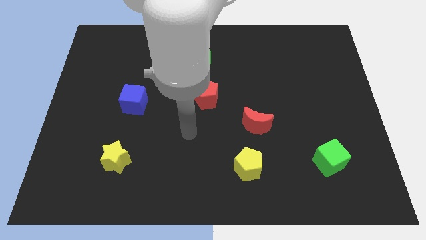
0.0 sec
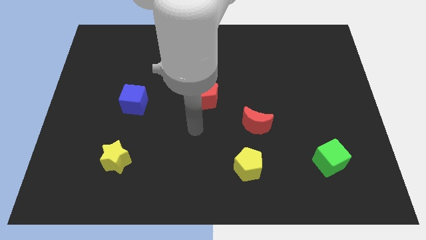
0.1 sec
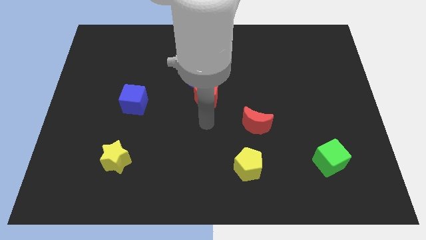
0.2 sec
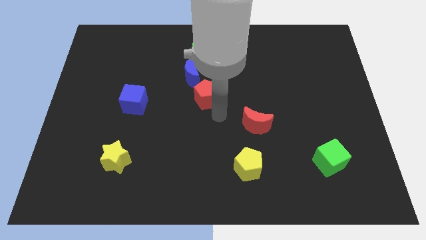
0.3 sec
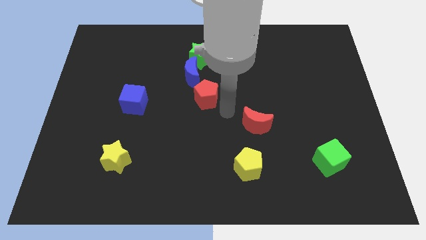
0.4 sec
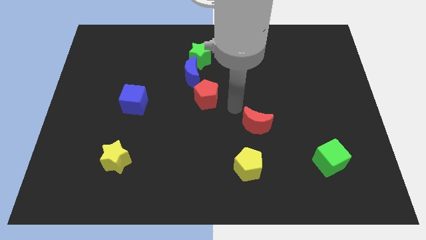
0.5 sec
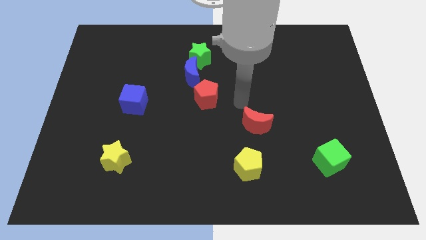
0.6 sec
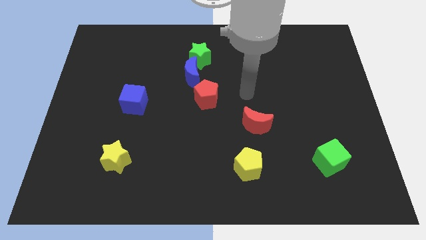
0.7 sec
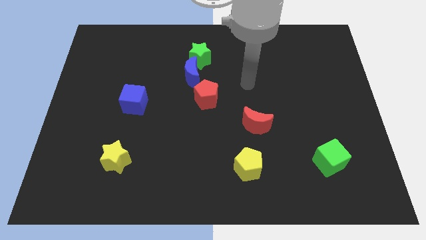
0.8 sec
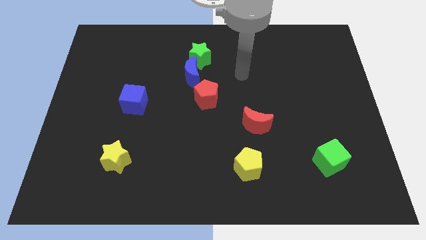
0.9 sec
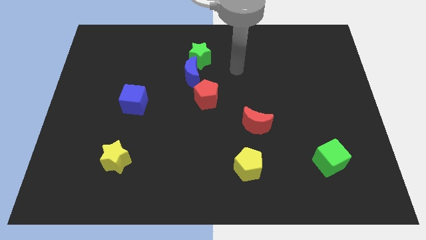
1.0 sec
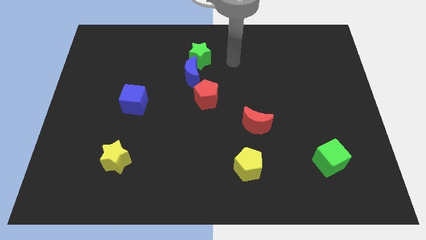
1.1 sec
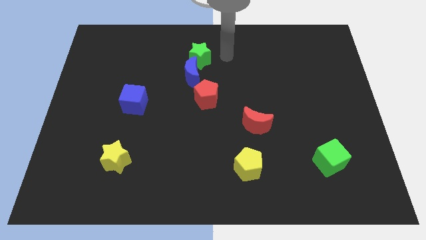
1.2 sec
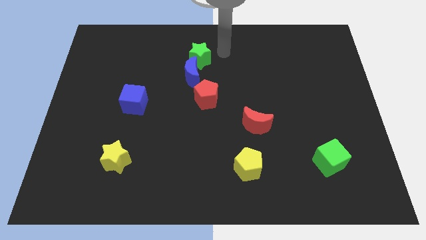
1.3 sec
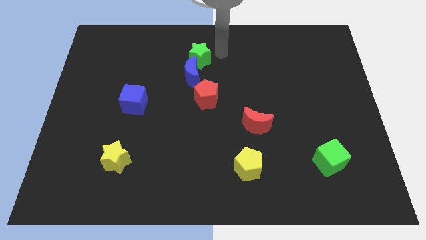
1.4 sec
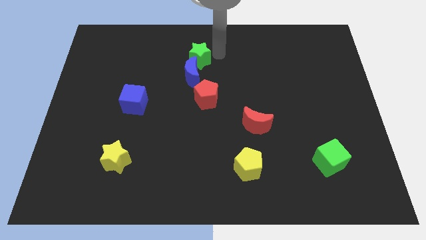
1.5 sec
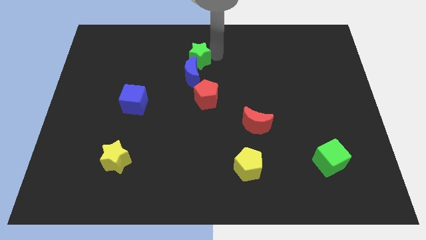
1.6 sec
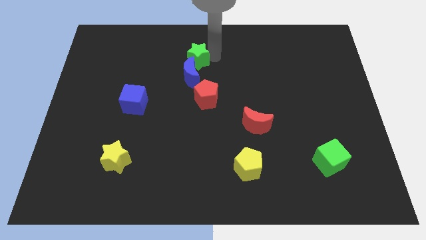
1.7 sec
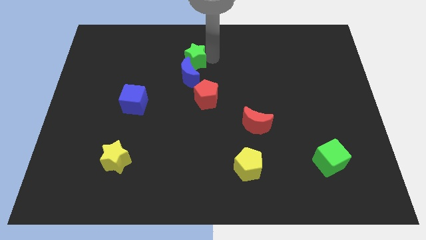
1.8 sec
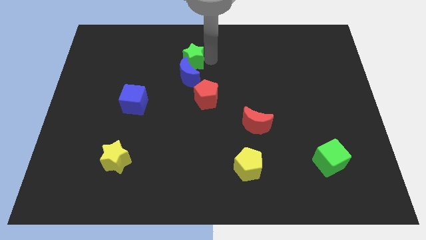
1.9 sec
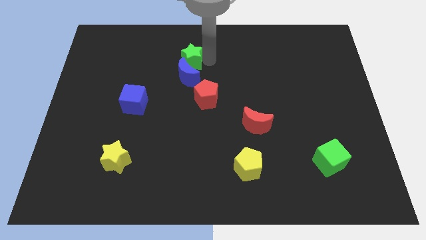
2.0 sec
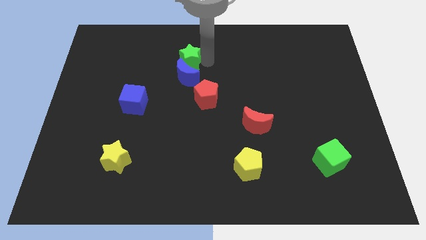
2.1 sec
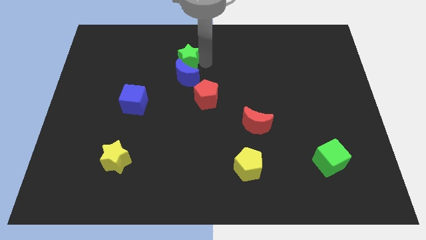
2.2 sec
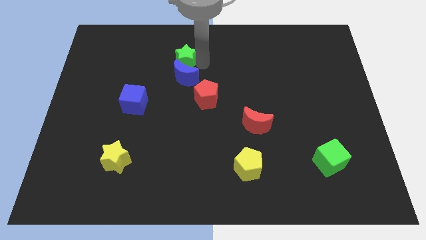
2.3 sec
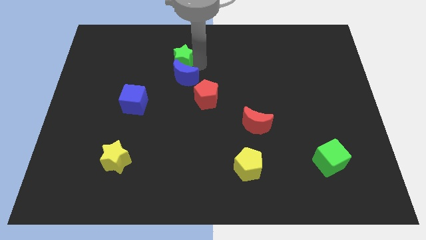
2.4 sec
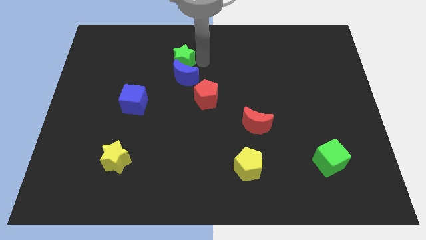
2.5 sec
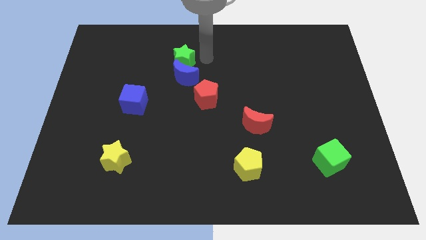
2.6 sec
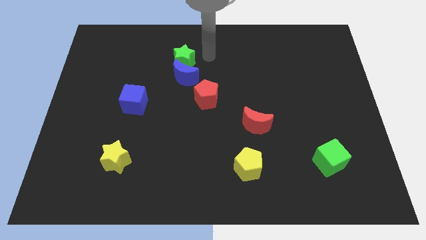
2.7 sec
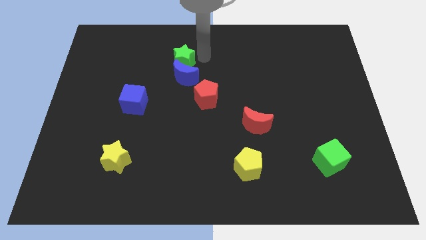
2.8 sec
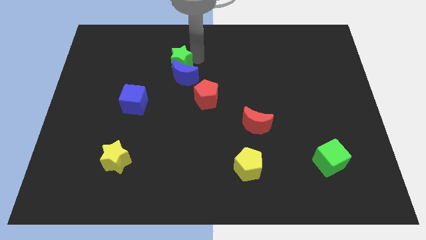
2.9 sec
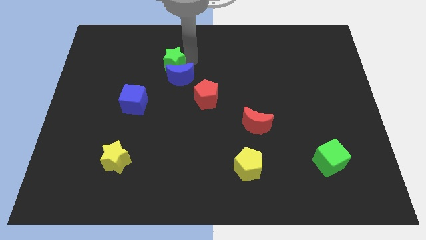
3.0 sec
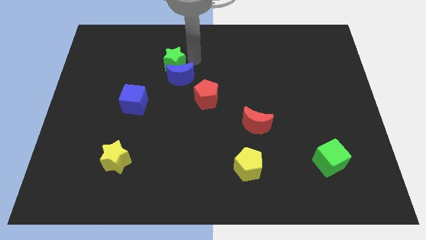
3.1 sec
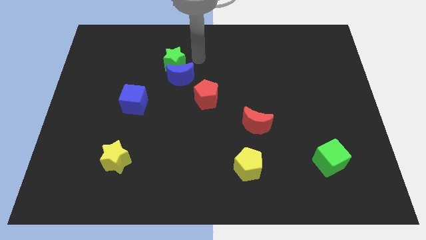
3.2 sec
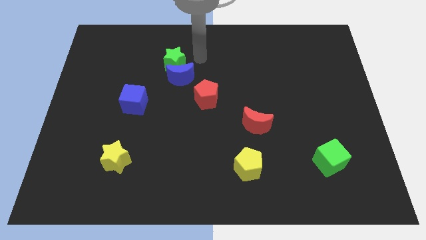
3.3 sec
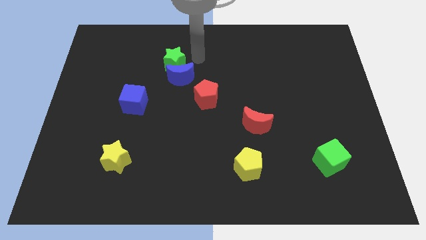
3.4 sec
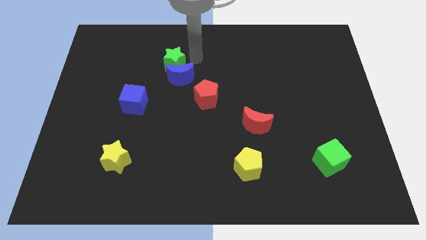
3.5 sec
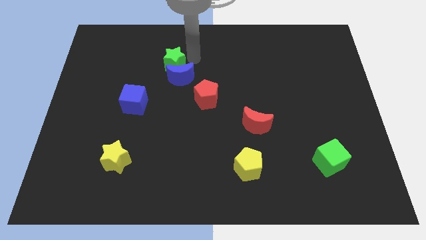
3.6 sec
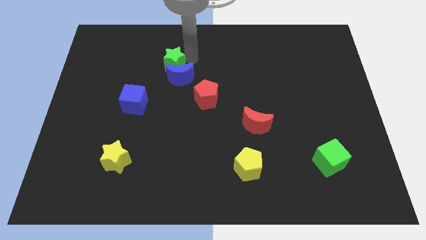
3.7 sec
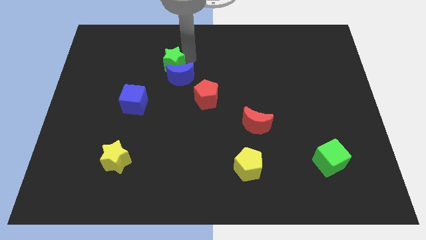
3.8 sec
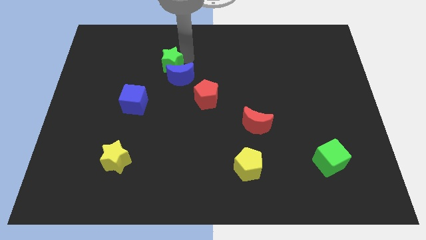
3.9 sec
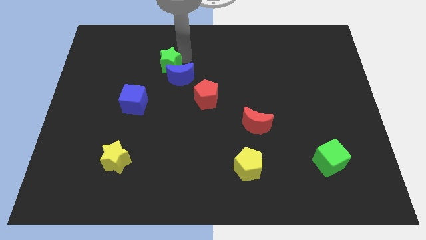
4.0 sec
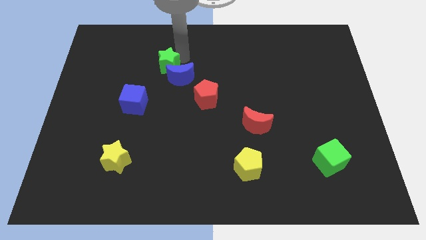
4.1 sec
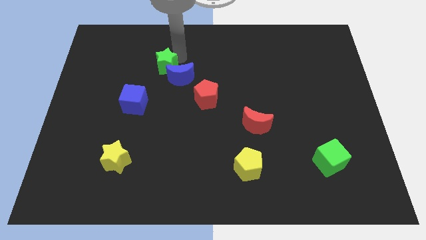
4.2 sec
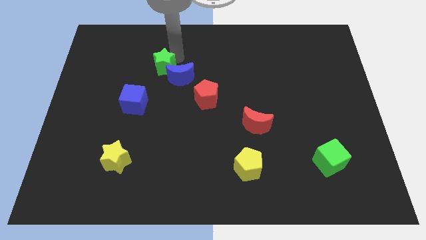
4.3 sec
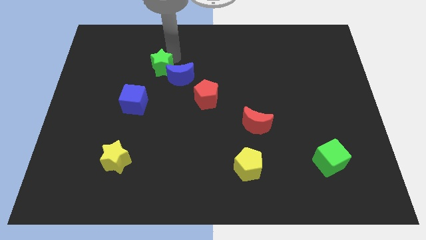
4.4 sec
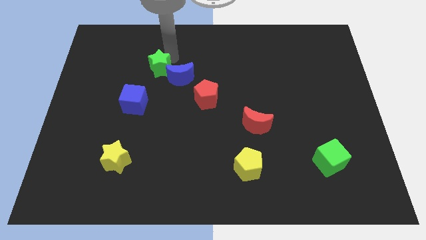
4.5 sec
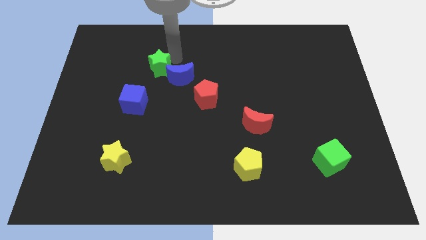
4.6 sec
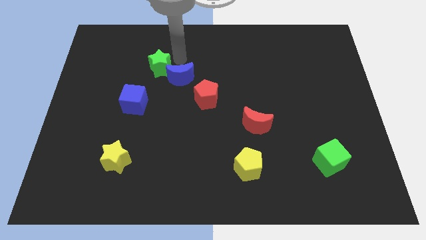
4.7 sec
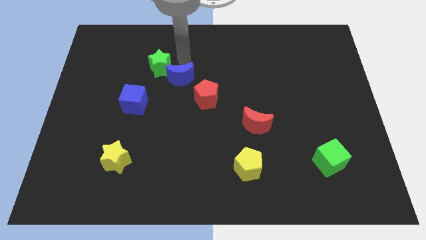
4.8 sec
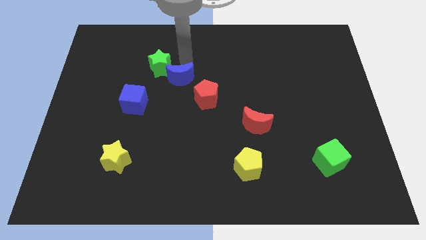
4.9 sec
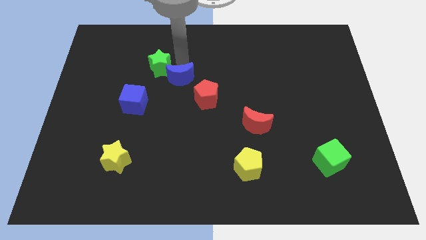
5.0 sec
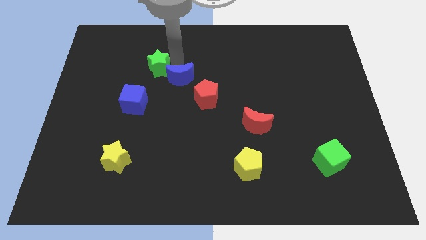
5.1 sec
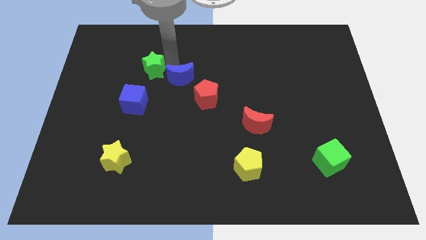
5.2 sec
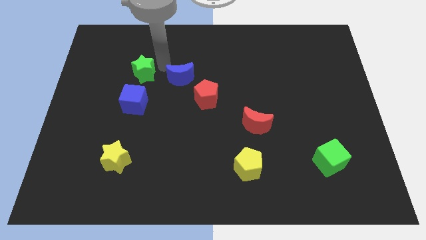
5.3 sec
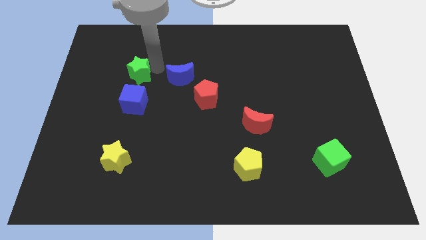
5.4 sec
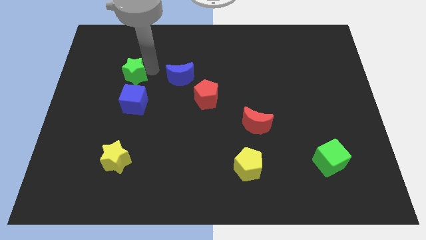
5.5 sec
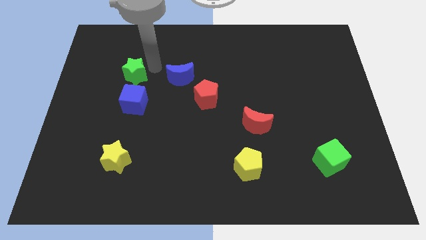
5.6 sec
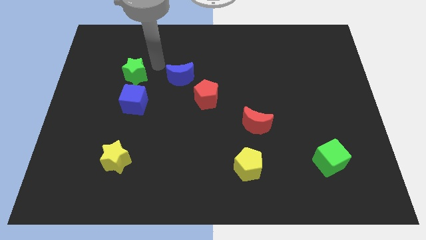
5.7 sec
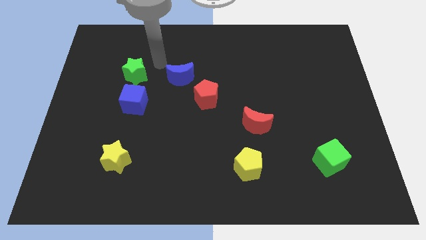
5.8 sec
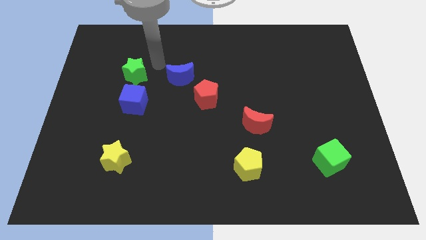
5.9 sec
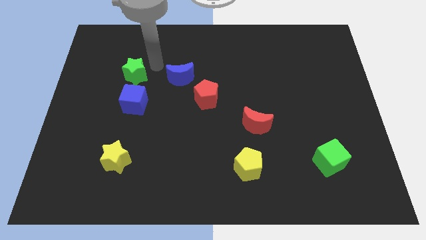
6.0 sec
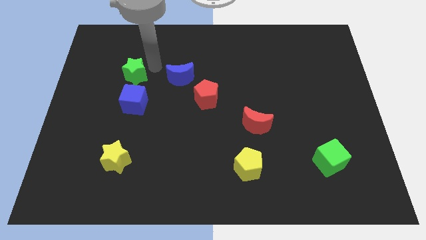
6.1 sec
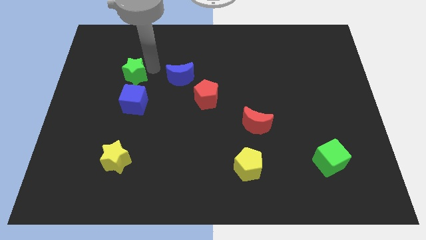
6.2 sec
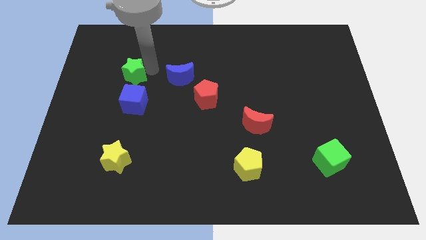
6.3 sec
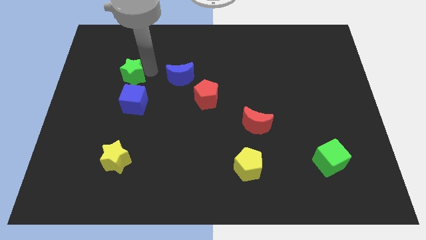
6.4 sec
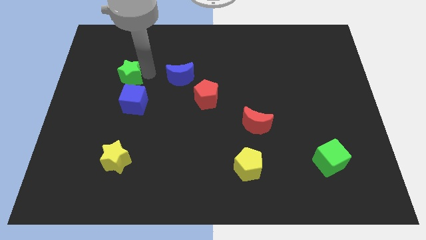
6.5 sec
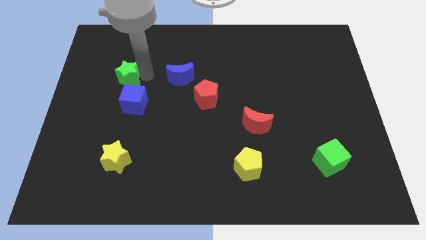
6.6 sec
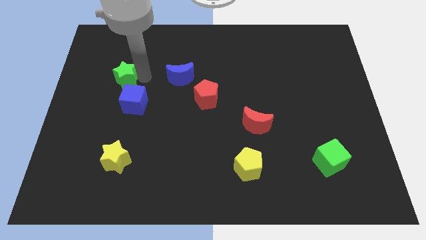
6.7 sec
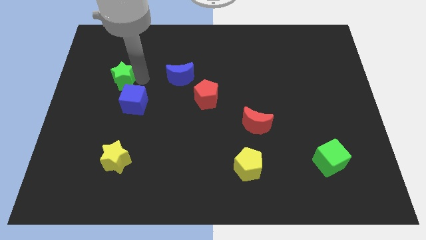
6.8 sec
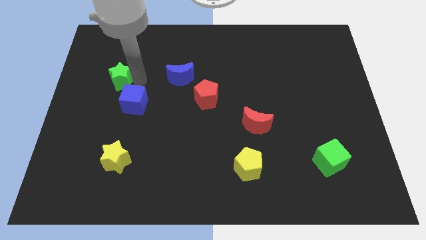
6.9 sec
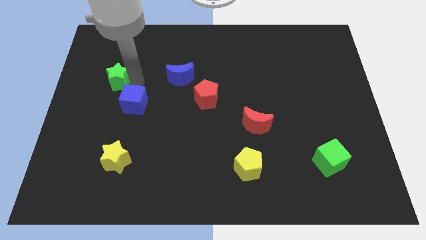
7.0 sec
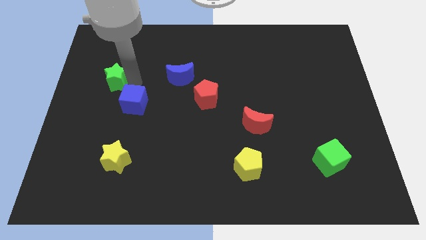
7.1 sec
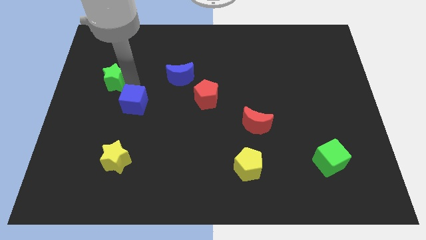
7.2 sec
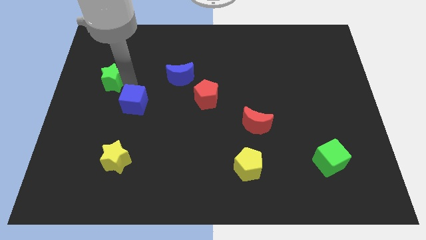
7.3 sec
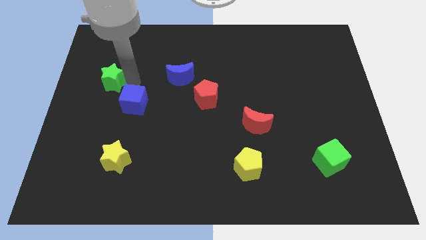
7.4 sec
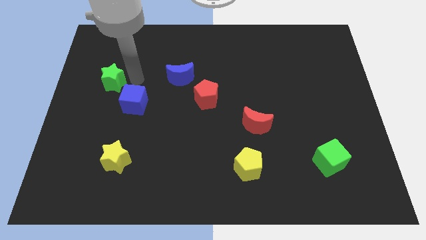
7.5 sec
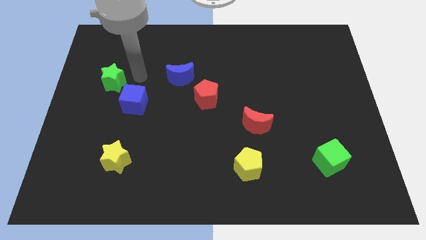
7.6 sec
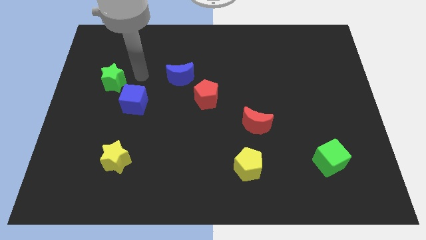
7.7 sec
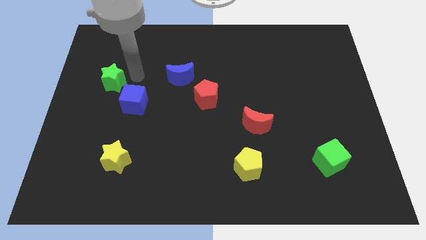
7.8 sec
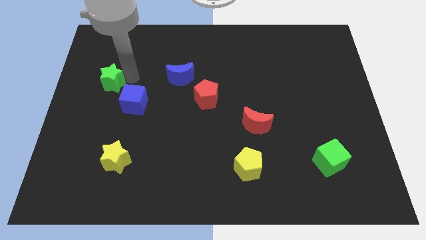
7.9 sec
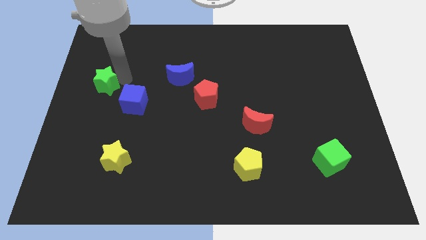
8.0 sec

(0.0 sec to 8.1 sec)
move the green star to the left side of the board
